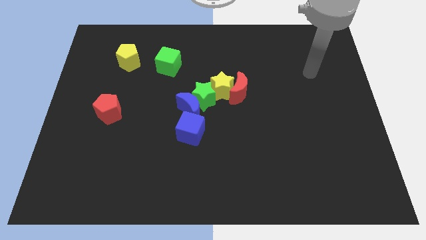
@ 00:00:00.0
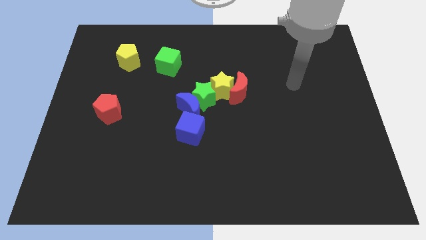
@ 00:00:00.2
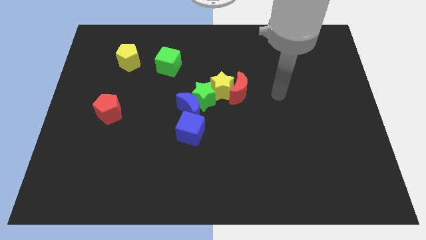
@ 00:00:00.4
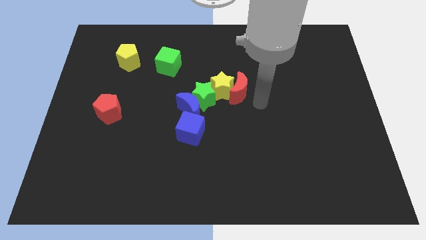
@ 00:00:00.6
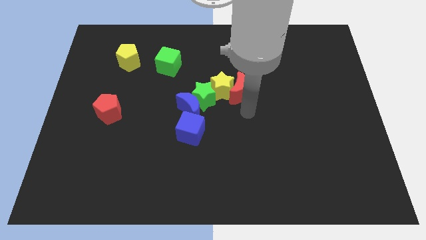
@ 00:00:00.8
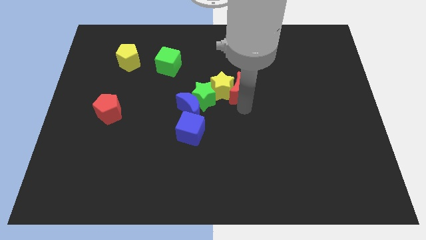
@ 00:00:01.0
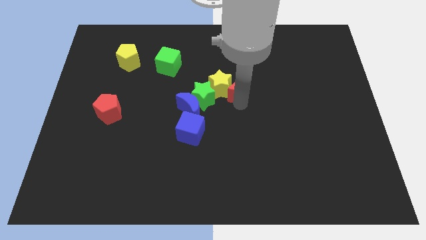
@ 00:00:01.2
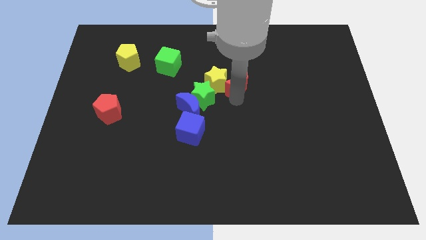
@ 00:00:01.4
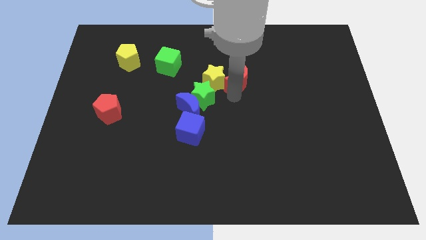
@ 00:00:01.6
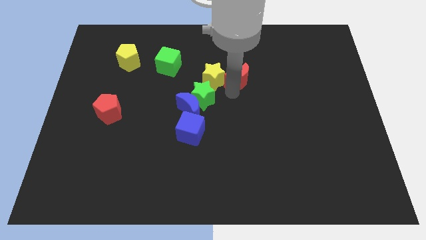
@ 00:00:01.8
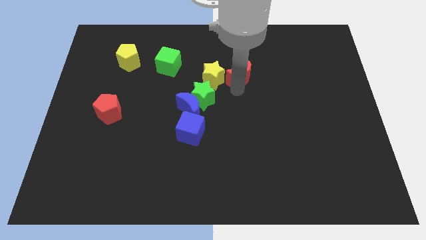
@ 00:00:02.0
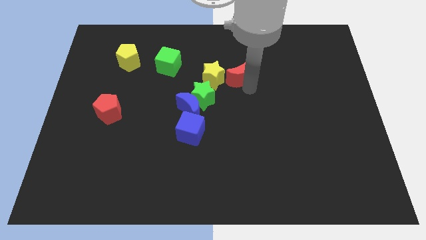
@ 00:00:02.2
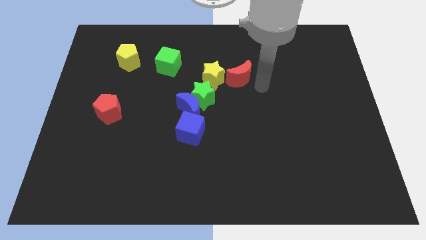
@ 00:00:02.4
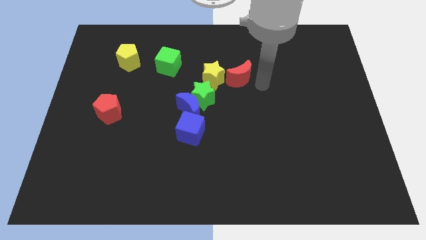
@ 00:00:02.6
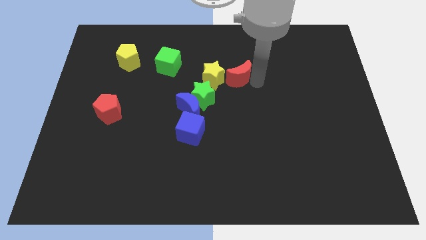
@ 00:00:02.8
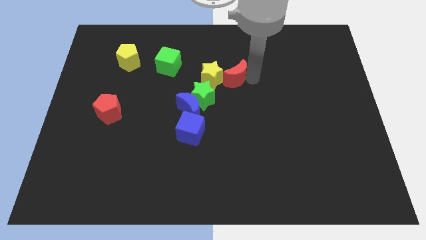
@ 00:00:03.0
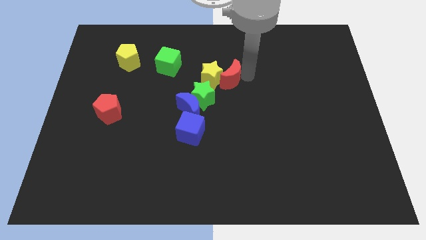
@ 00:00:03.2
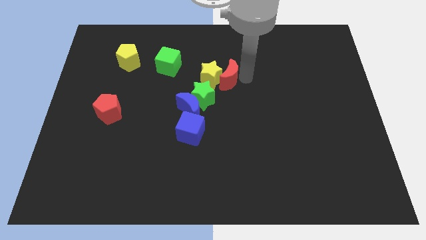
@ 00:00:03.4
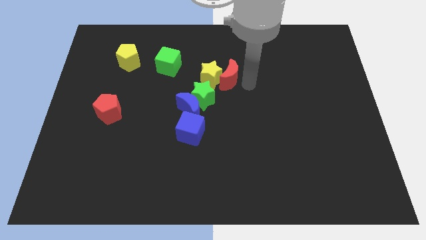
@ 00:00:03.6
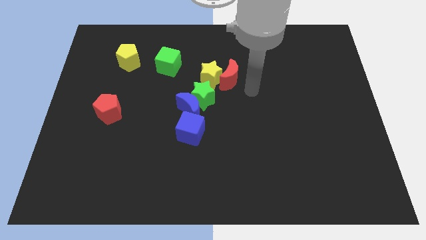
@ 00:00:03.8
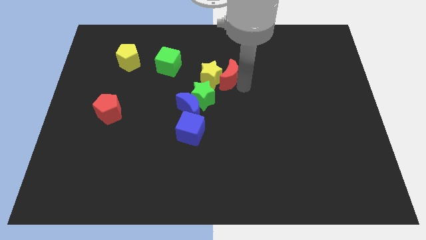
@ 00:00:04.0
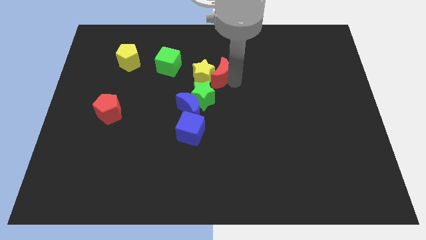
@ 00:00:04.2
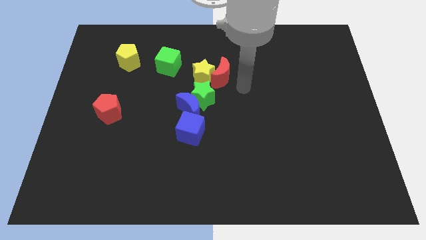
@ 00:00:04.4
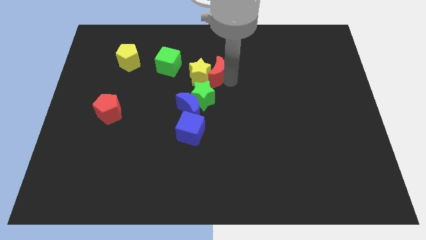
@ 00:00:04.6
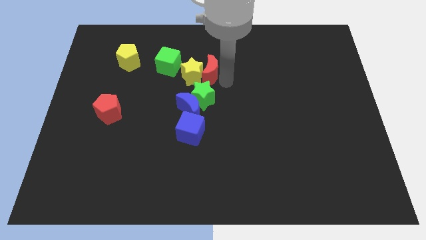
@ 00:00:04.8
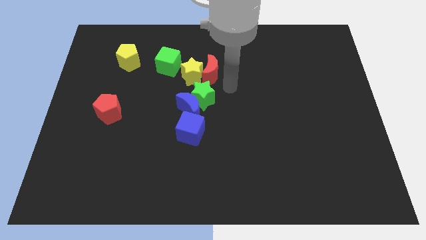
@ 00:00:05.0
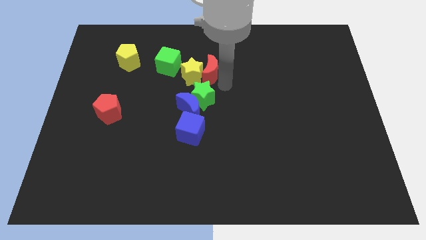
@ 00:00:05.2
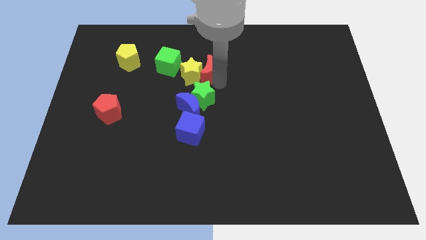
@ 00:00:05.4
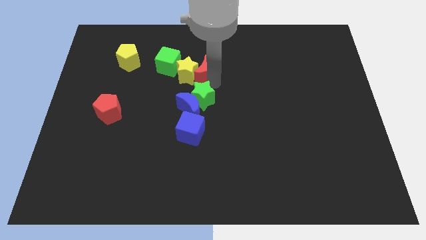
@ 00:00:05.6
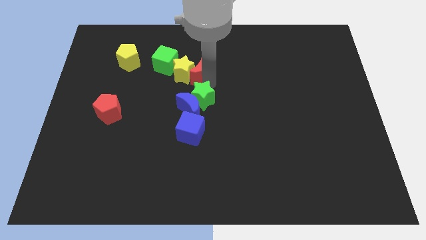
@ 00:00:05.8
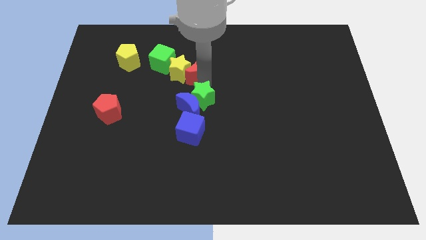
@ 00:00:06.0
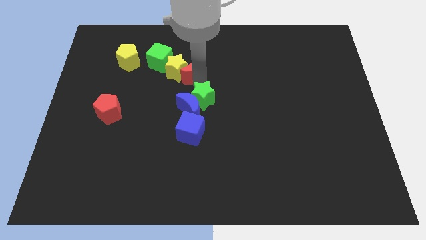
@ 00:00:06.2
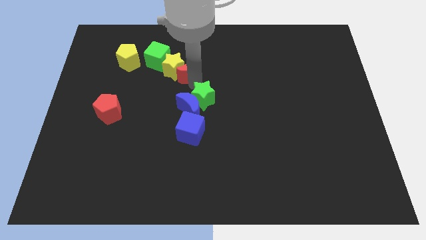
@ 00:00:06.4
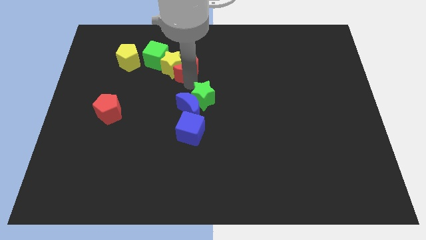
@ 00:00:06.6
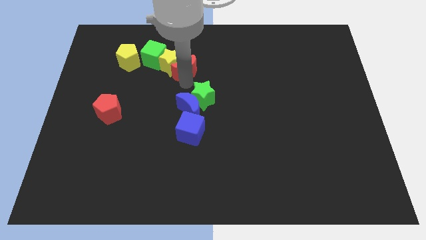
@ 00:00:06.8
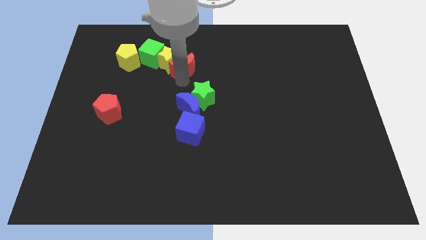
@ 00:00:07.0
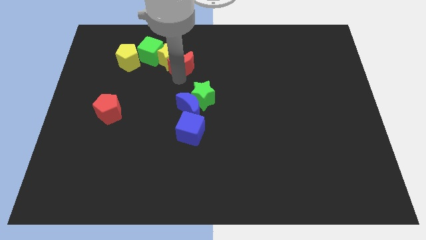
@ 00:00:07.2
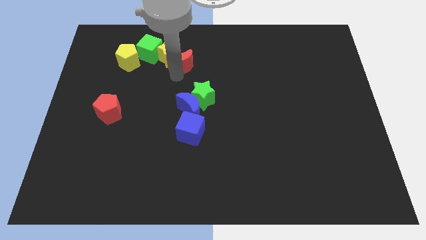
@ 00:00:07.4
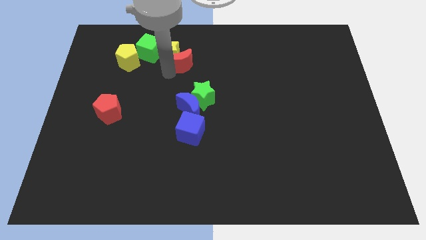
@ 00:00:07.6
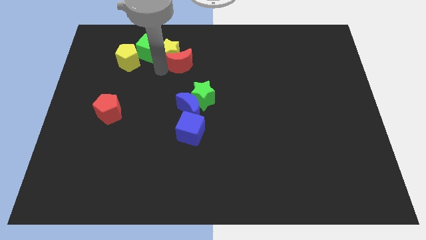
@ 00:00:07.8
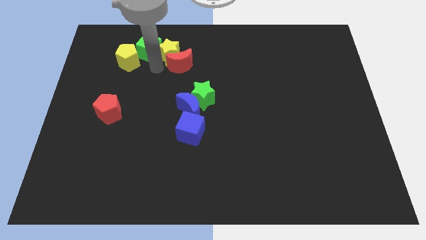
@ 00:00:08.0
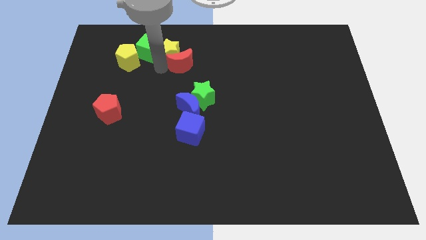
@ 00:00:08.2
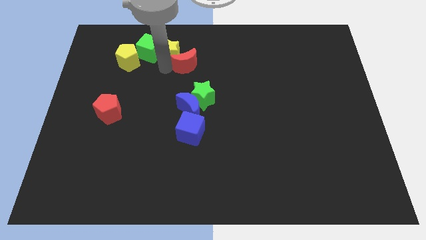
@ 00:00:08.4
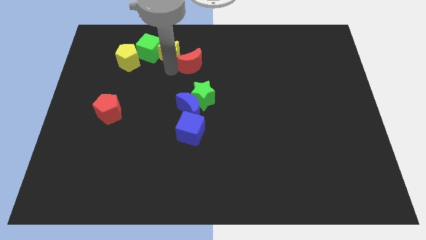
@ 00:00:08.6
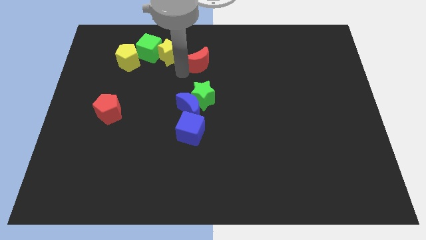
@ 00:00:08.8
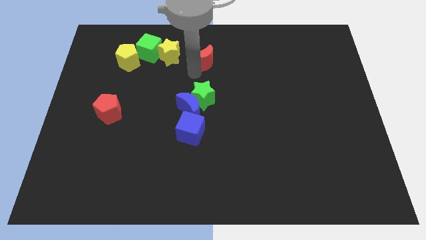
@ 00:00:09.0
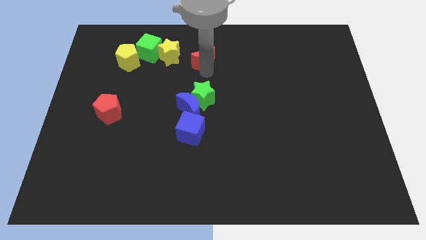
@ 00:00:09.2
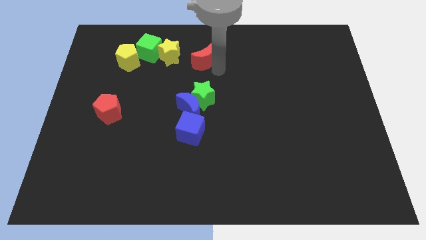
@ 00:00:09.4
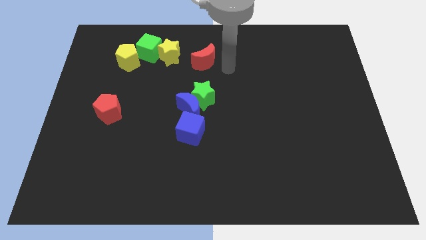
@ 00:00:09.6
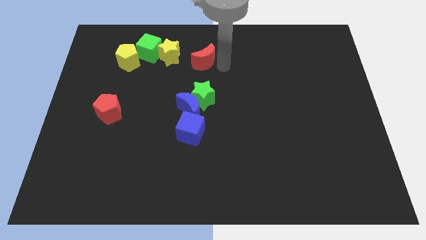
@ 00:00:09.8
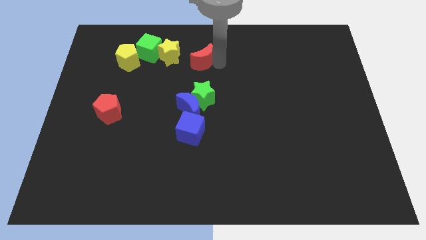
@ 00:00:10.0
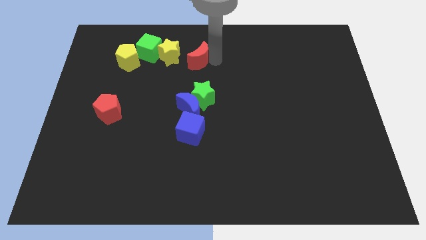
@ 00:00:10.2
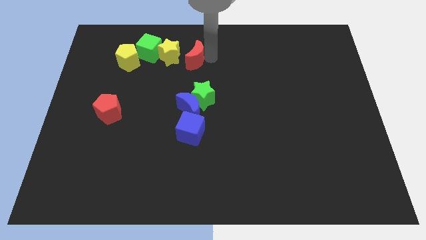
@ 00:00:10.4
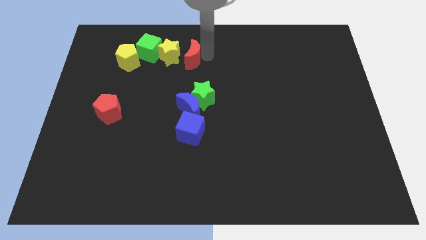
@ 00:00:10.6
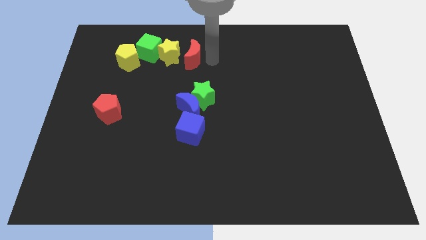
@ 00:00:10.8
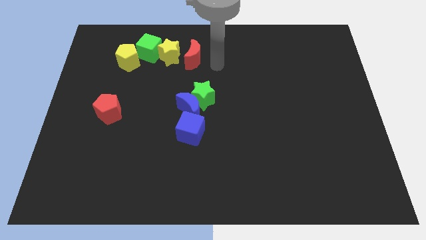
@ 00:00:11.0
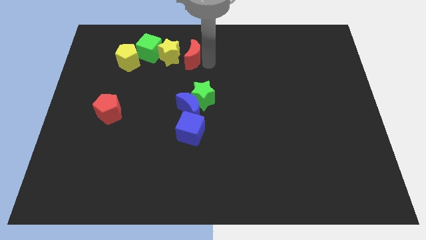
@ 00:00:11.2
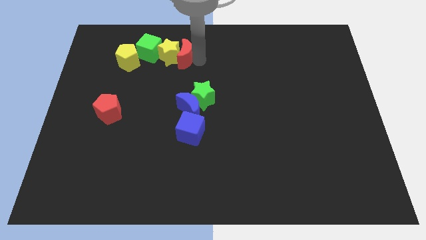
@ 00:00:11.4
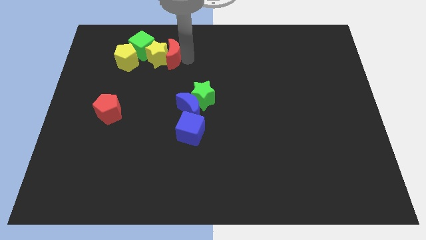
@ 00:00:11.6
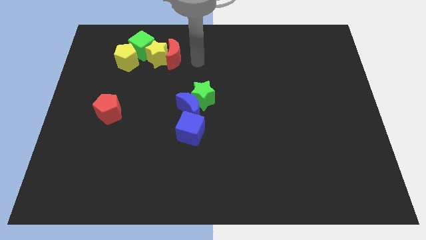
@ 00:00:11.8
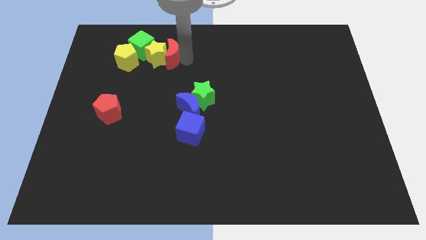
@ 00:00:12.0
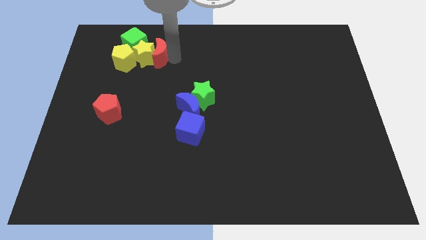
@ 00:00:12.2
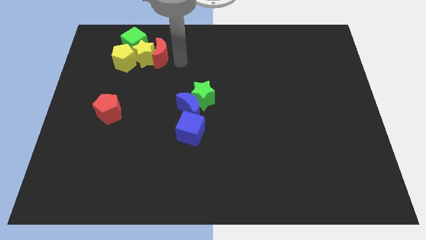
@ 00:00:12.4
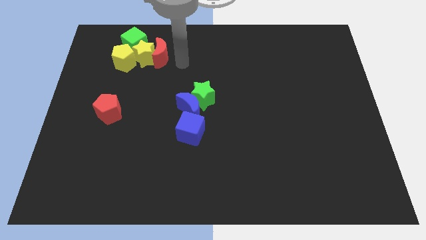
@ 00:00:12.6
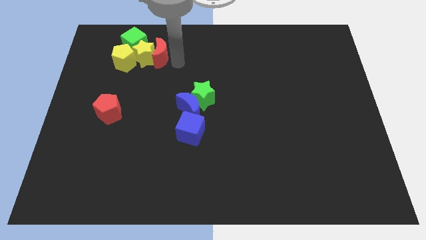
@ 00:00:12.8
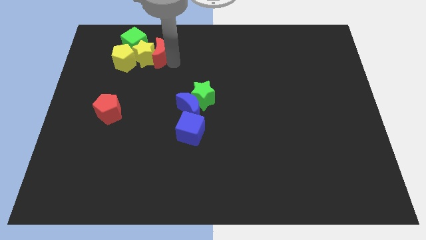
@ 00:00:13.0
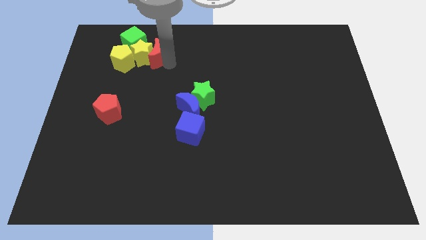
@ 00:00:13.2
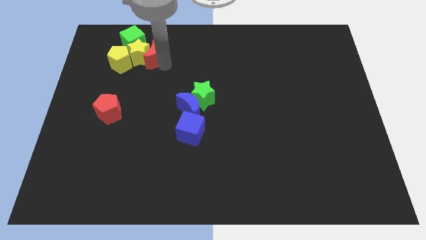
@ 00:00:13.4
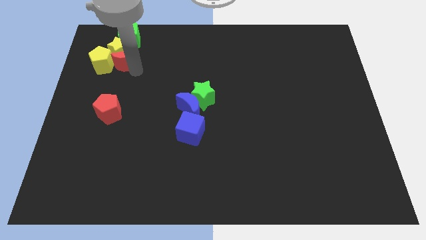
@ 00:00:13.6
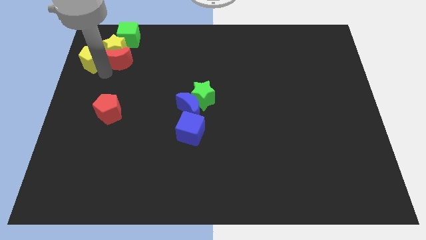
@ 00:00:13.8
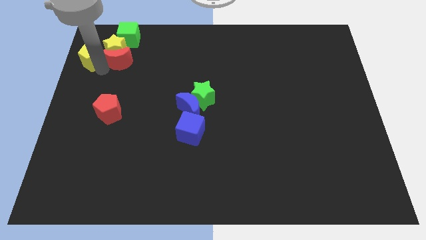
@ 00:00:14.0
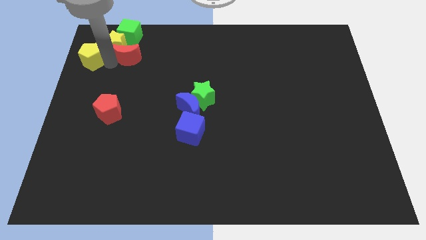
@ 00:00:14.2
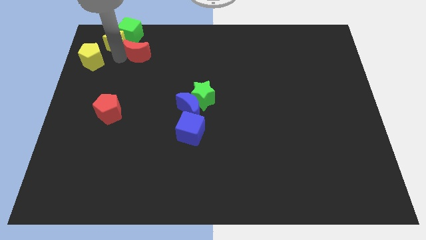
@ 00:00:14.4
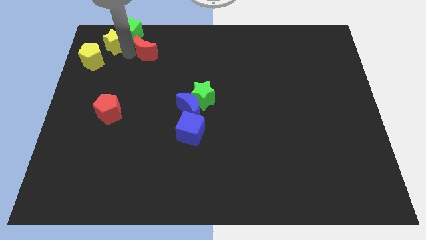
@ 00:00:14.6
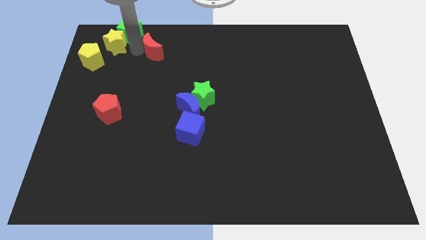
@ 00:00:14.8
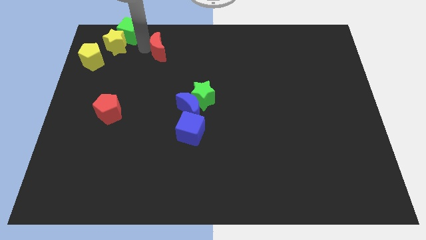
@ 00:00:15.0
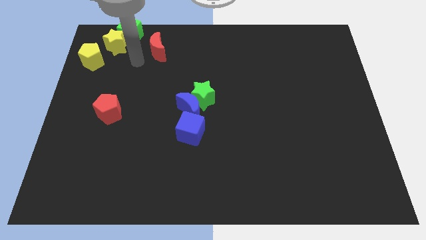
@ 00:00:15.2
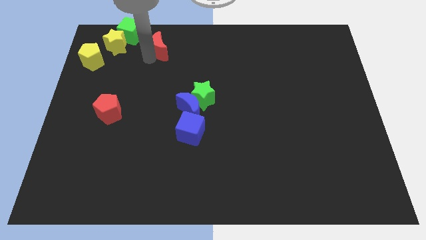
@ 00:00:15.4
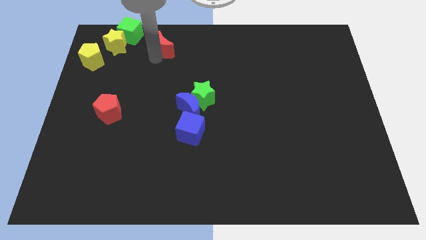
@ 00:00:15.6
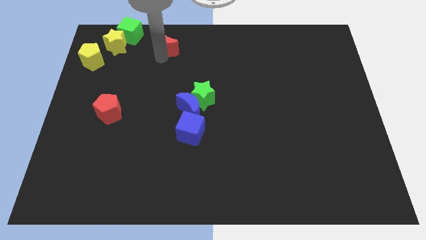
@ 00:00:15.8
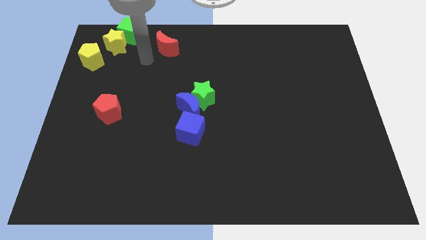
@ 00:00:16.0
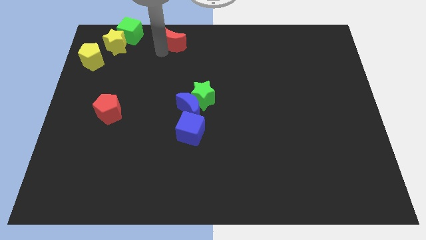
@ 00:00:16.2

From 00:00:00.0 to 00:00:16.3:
move the red moon to the top side
